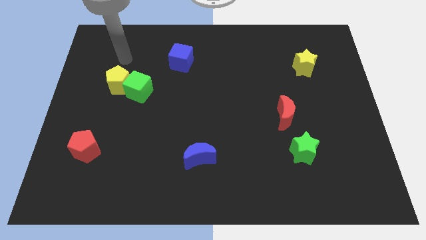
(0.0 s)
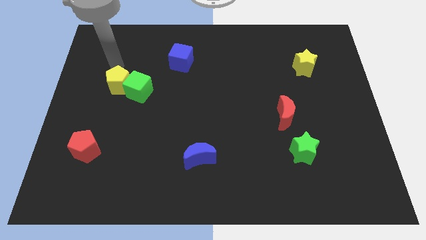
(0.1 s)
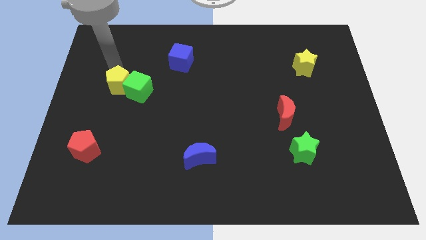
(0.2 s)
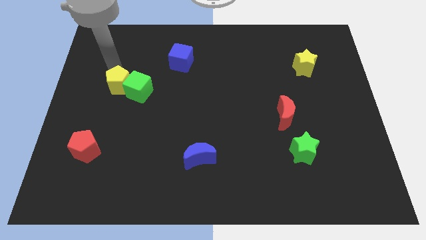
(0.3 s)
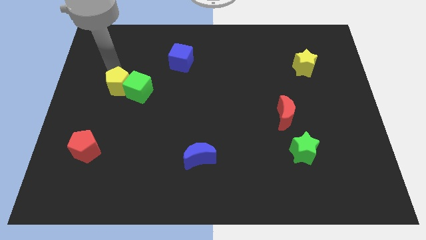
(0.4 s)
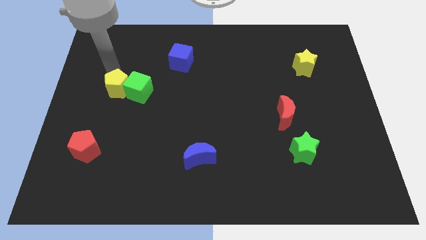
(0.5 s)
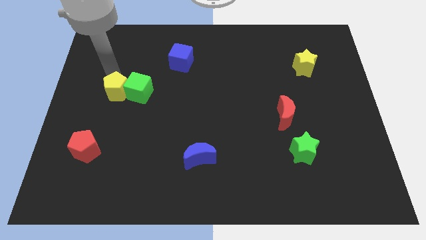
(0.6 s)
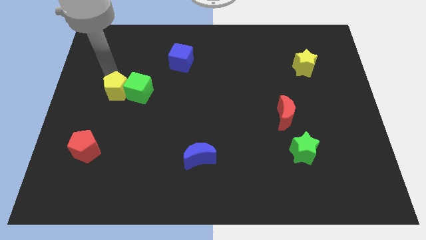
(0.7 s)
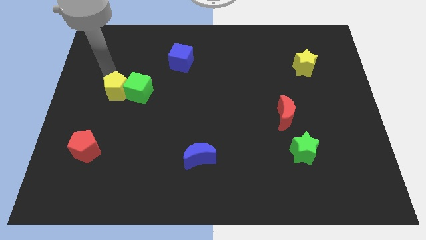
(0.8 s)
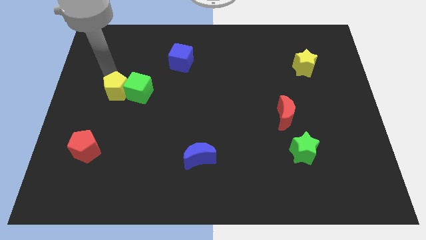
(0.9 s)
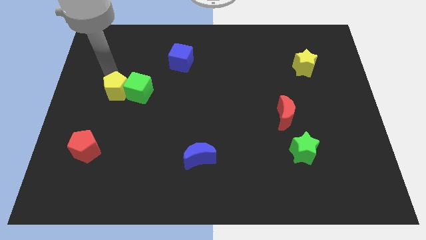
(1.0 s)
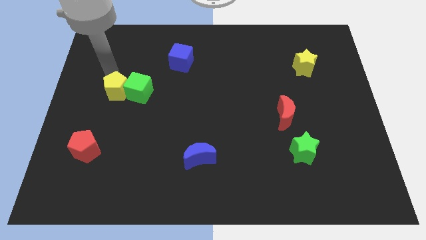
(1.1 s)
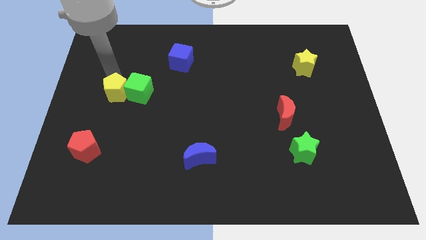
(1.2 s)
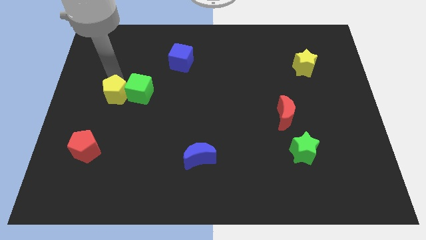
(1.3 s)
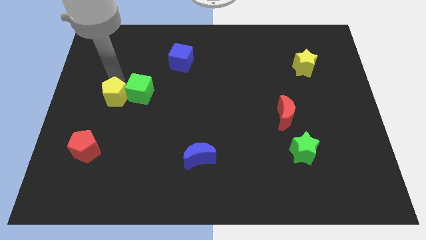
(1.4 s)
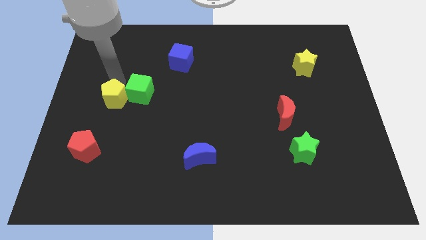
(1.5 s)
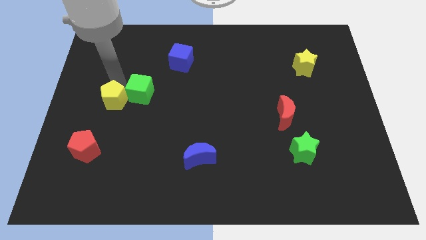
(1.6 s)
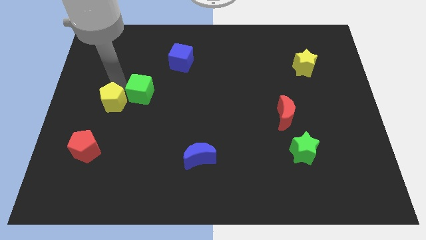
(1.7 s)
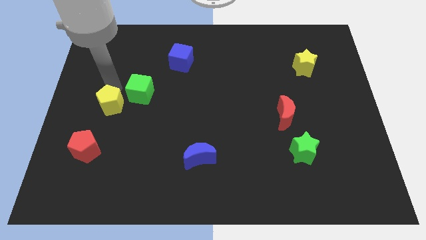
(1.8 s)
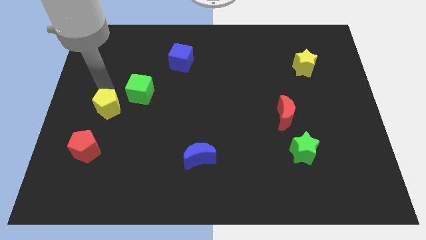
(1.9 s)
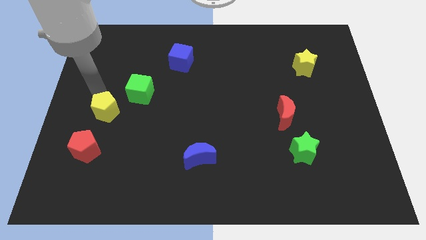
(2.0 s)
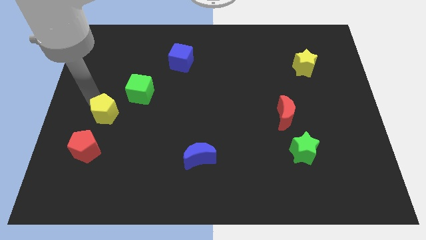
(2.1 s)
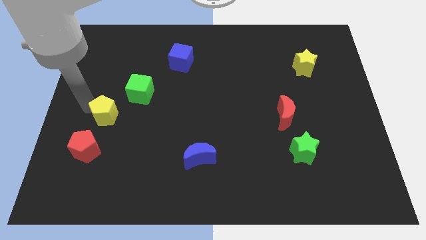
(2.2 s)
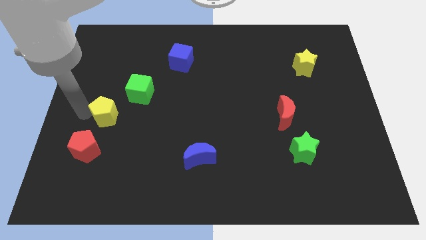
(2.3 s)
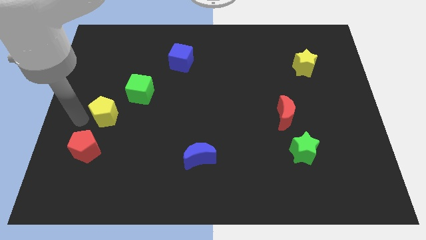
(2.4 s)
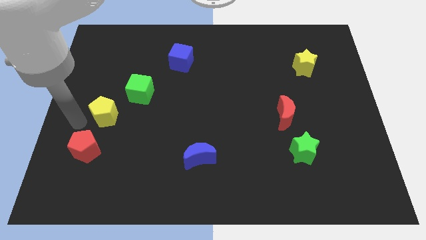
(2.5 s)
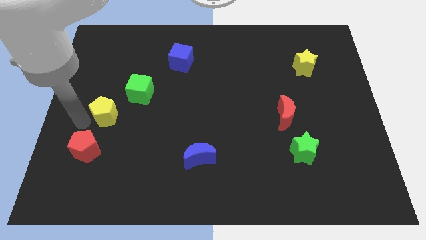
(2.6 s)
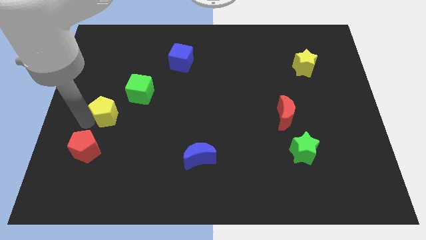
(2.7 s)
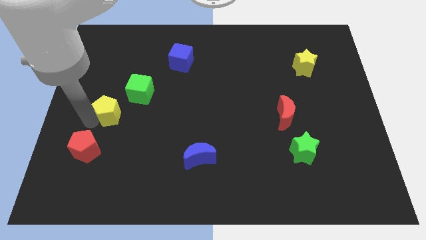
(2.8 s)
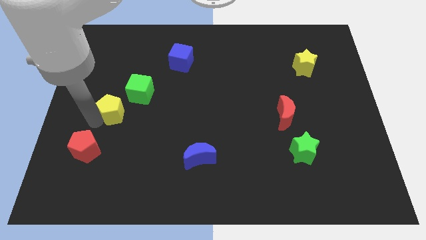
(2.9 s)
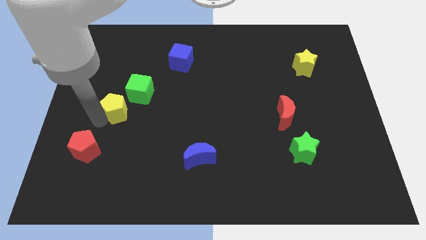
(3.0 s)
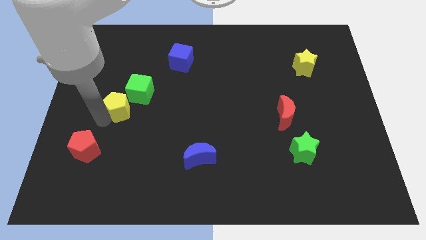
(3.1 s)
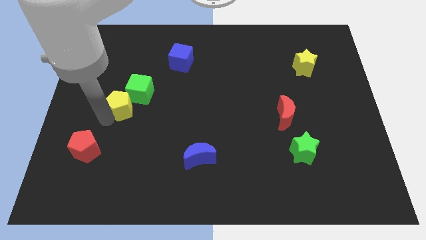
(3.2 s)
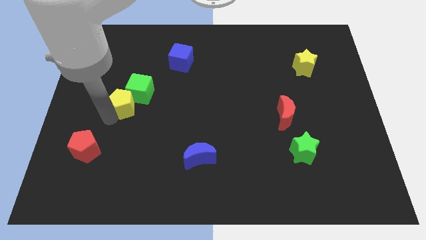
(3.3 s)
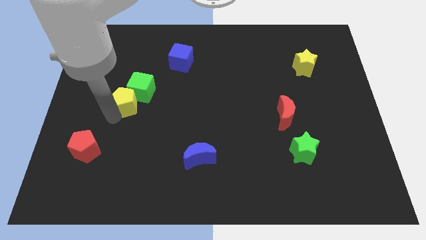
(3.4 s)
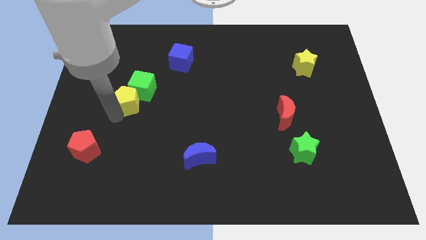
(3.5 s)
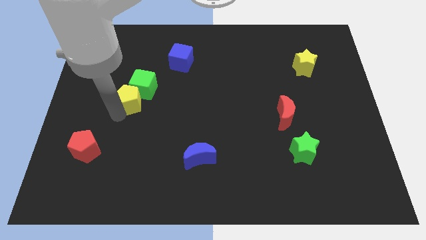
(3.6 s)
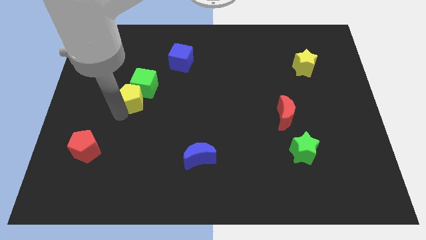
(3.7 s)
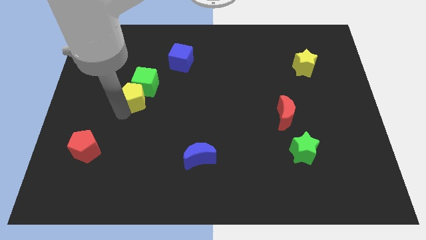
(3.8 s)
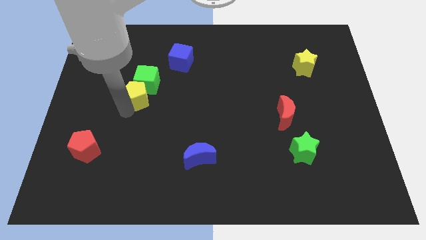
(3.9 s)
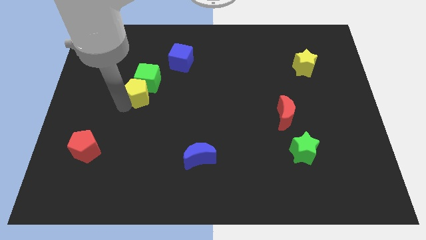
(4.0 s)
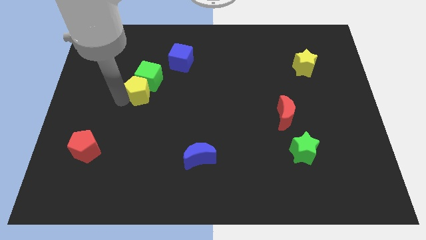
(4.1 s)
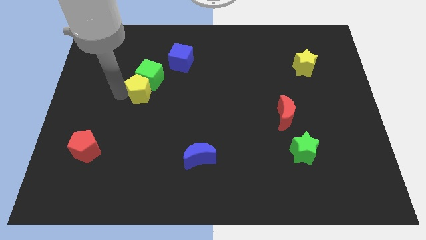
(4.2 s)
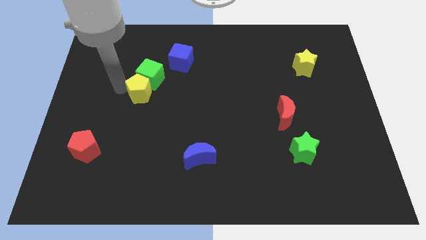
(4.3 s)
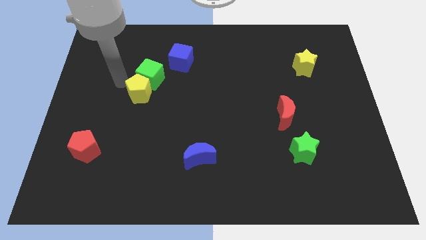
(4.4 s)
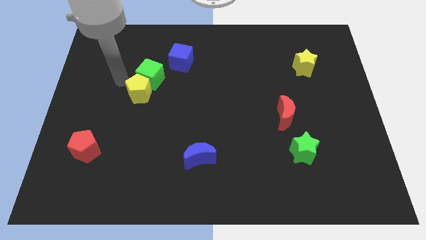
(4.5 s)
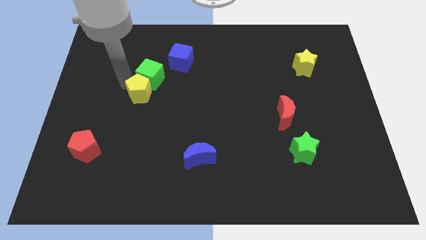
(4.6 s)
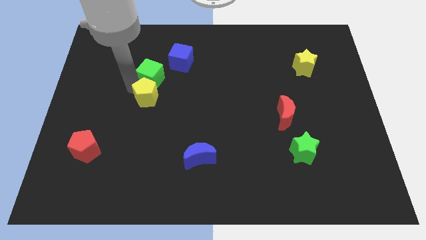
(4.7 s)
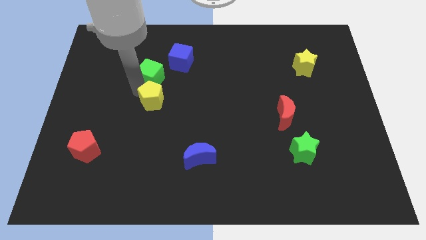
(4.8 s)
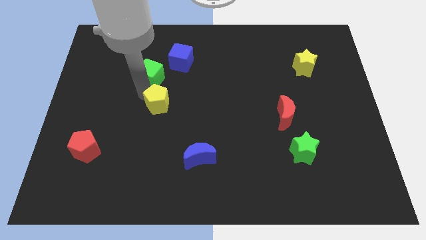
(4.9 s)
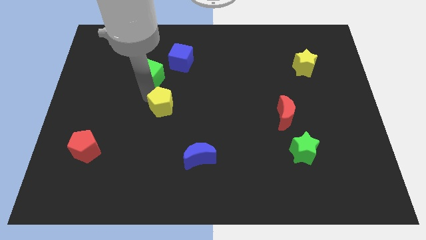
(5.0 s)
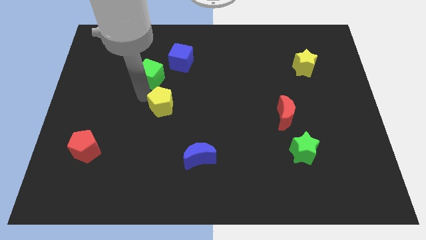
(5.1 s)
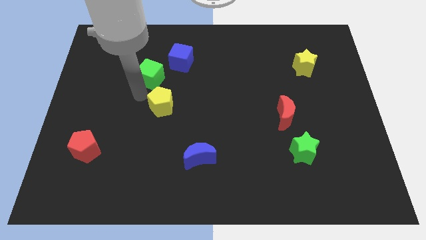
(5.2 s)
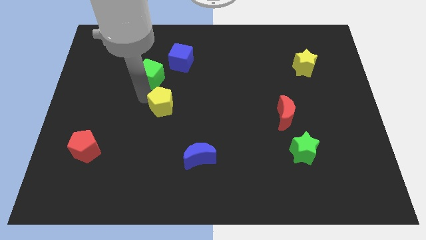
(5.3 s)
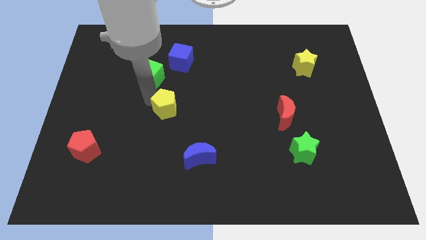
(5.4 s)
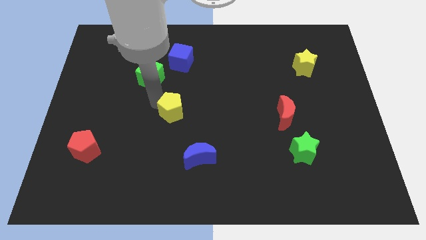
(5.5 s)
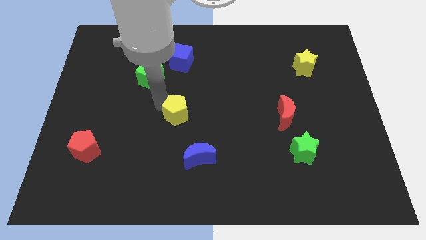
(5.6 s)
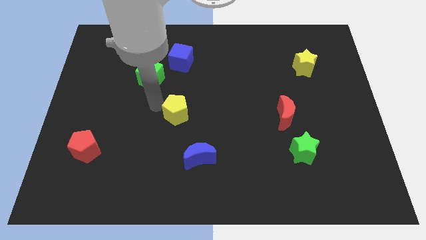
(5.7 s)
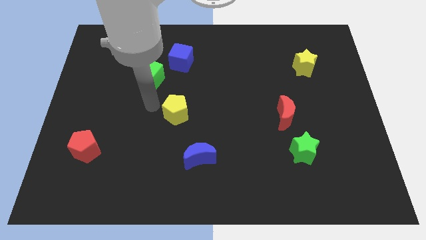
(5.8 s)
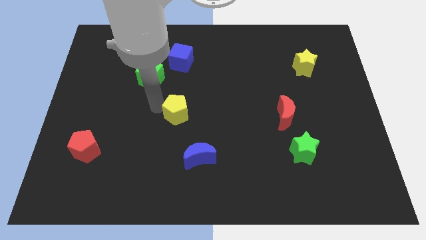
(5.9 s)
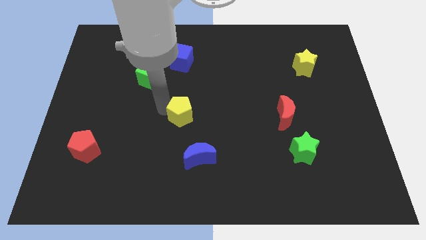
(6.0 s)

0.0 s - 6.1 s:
push the yellow pentagon to the top of the blue moon
